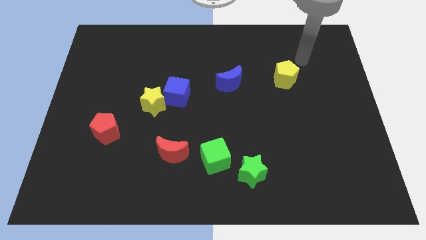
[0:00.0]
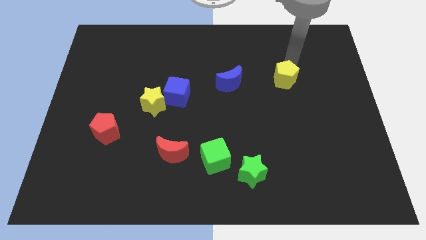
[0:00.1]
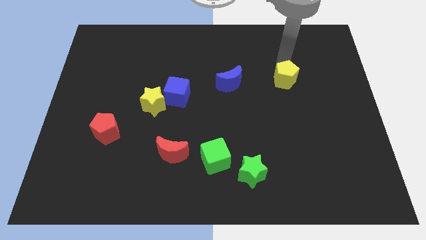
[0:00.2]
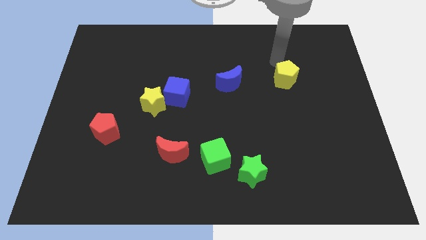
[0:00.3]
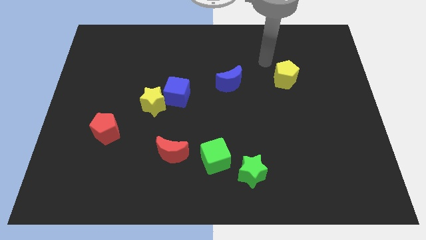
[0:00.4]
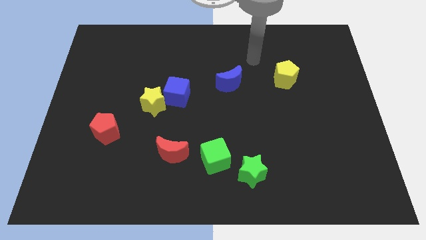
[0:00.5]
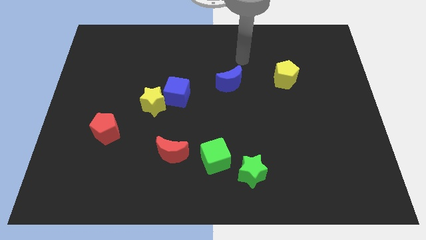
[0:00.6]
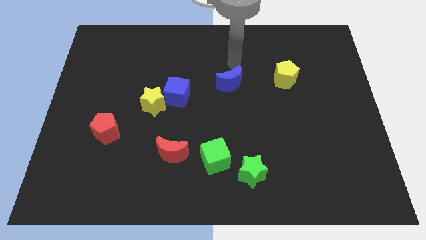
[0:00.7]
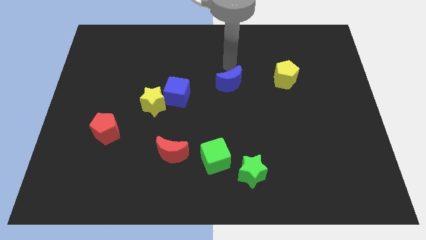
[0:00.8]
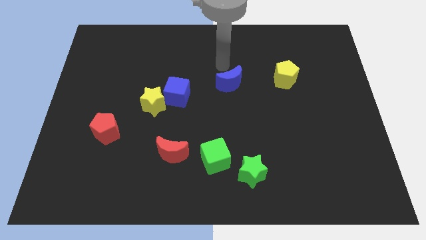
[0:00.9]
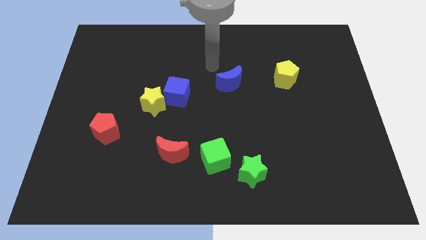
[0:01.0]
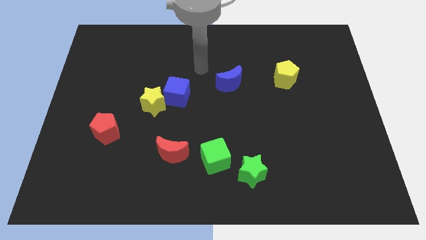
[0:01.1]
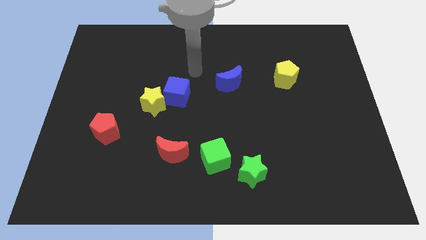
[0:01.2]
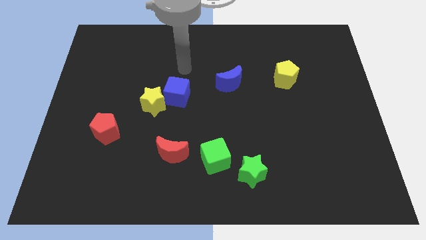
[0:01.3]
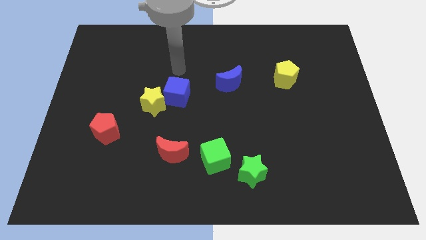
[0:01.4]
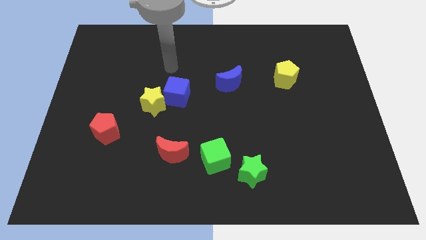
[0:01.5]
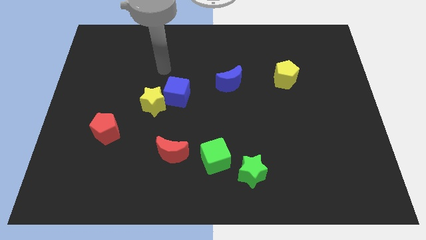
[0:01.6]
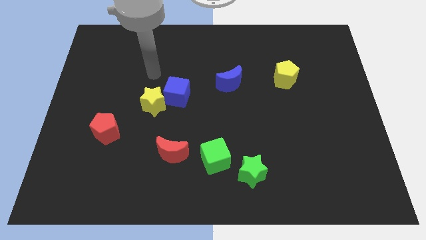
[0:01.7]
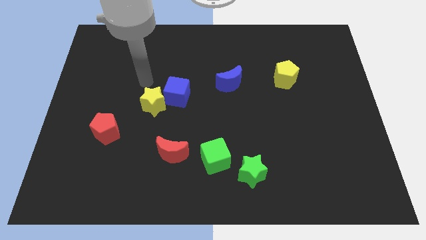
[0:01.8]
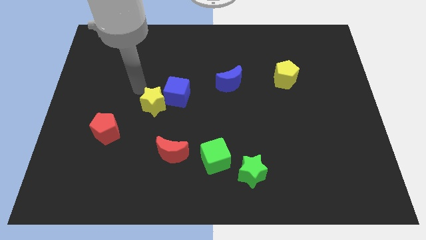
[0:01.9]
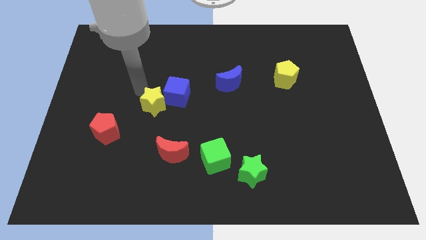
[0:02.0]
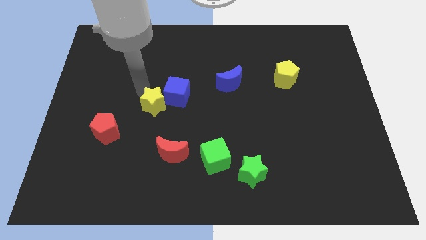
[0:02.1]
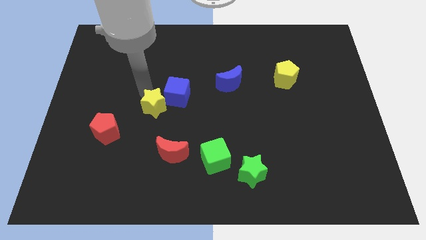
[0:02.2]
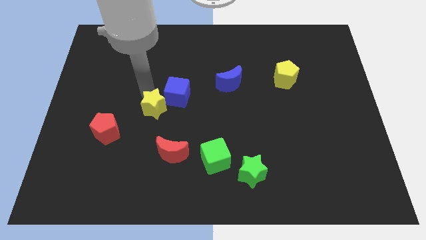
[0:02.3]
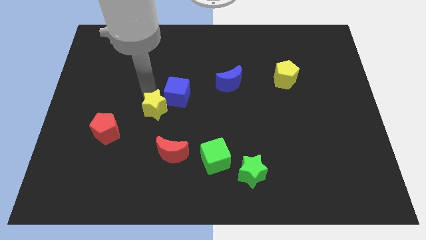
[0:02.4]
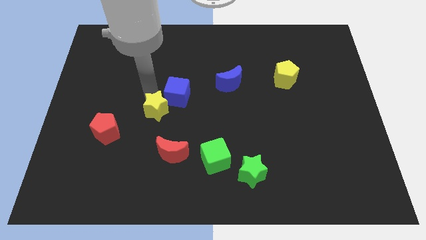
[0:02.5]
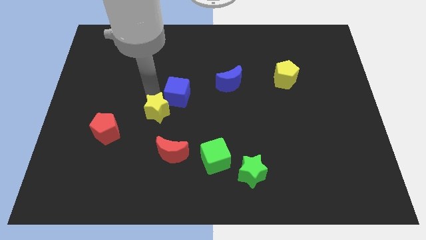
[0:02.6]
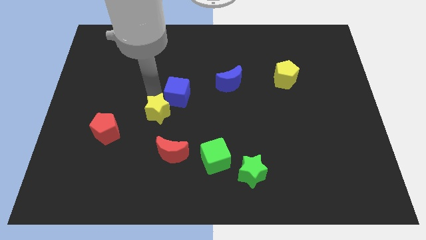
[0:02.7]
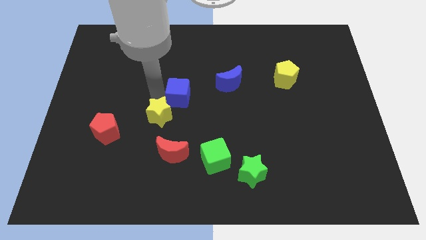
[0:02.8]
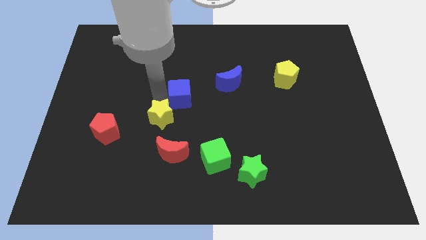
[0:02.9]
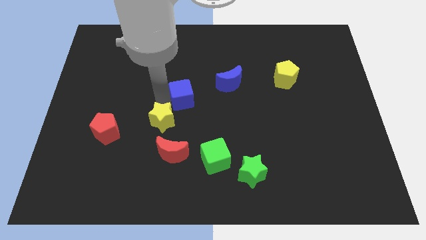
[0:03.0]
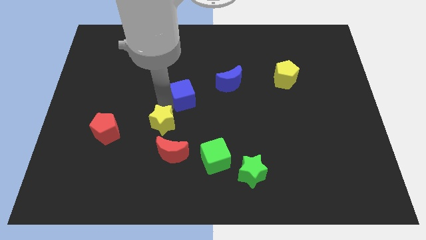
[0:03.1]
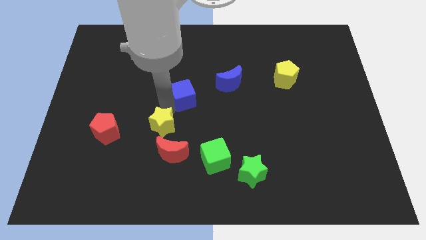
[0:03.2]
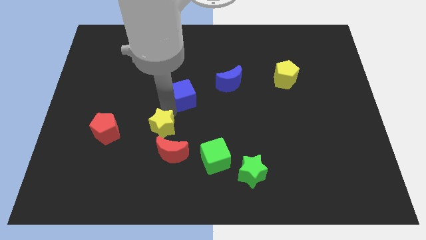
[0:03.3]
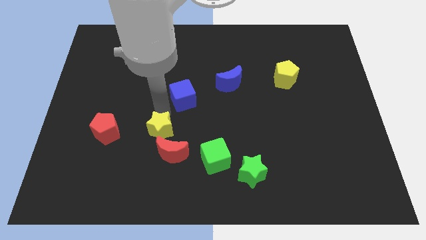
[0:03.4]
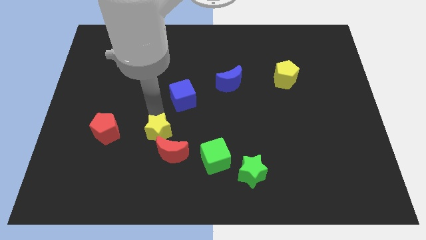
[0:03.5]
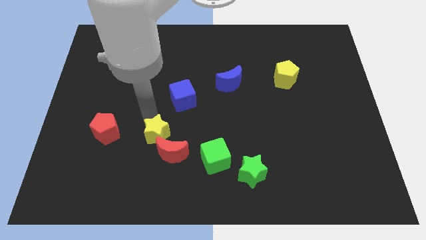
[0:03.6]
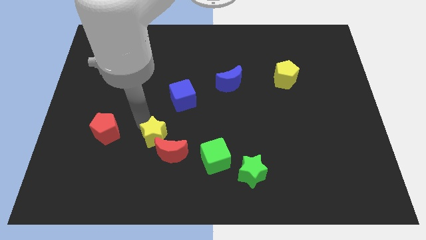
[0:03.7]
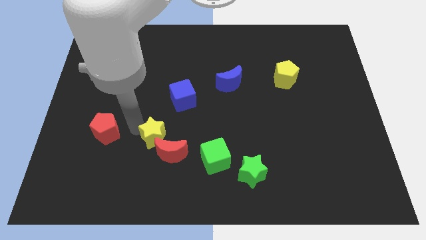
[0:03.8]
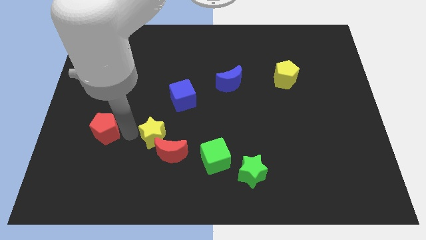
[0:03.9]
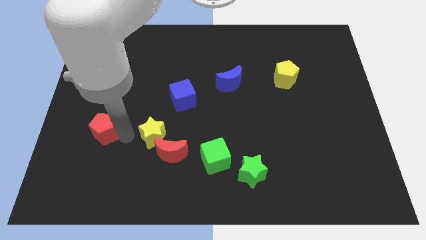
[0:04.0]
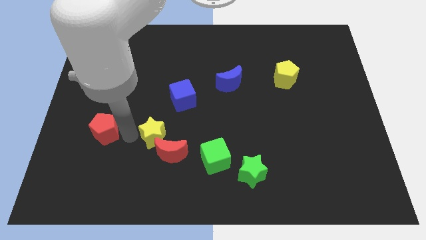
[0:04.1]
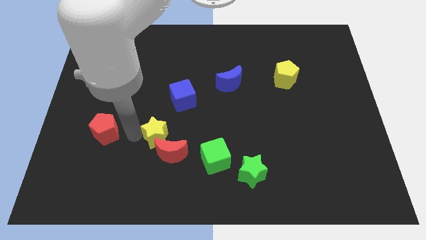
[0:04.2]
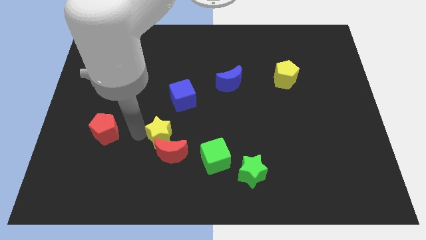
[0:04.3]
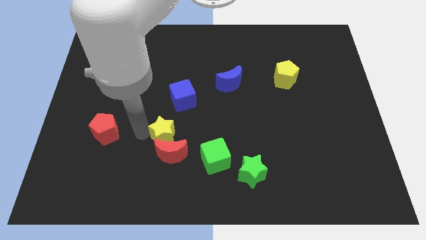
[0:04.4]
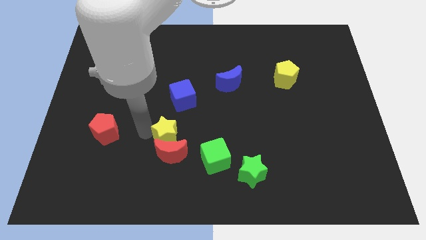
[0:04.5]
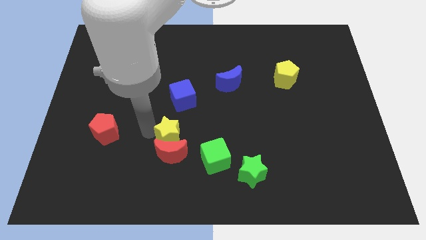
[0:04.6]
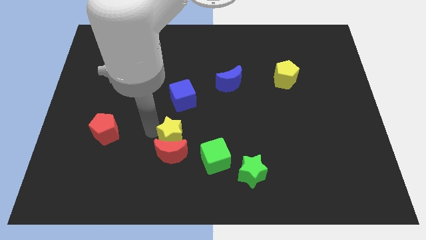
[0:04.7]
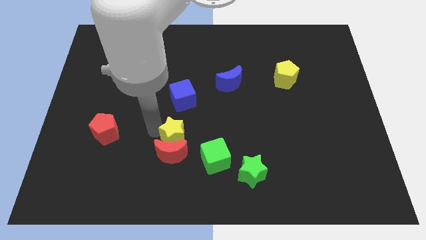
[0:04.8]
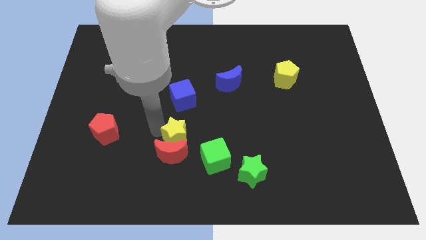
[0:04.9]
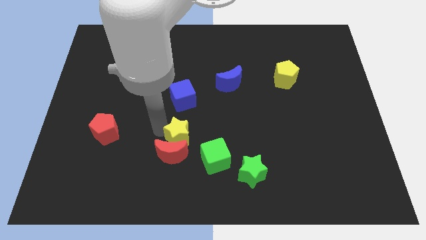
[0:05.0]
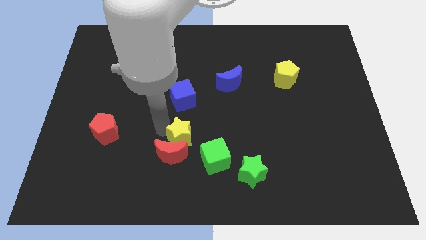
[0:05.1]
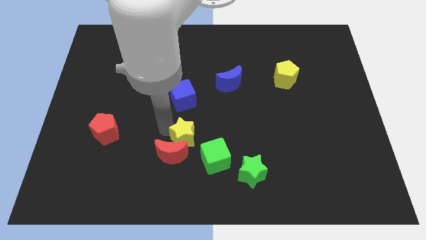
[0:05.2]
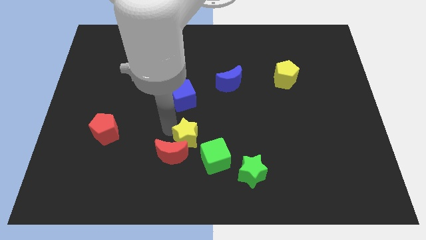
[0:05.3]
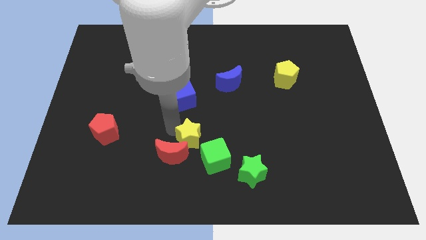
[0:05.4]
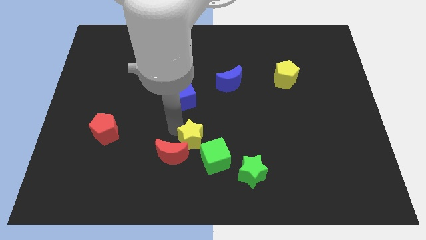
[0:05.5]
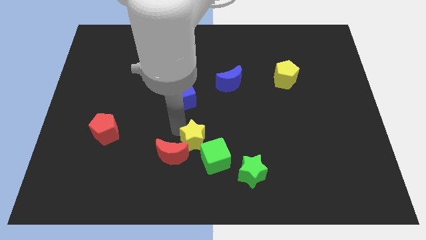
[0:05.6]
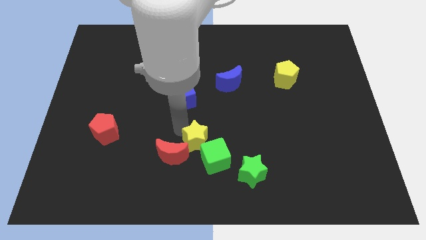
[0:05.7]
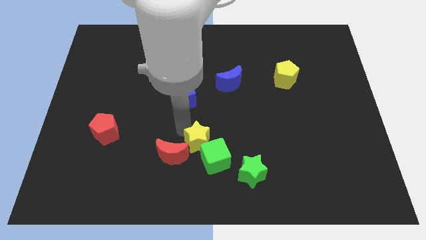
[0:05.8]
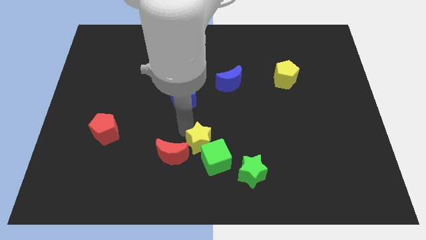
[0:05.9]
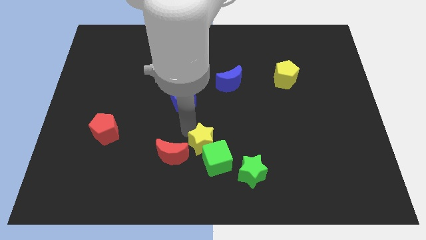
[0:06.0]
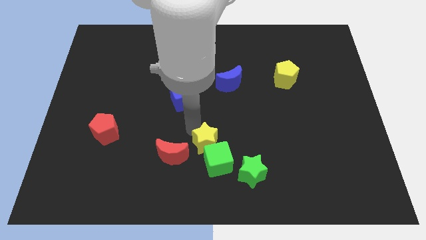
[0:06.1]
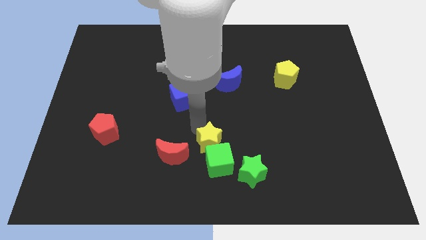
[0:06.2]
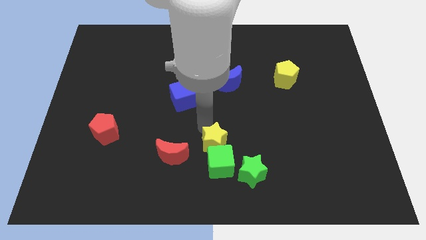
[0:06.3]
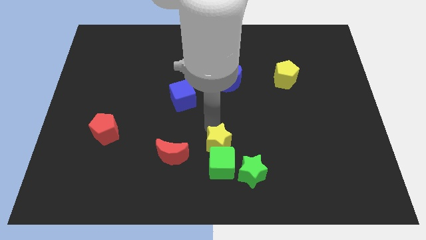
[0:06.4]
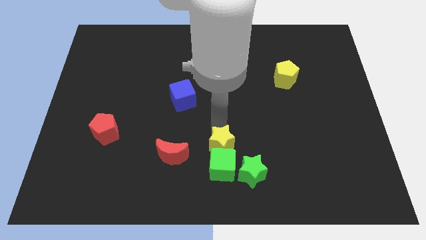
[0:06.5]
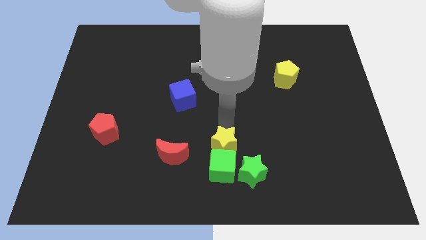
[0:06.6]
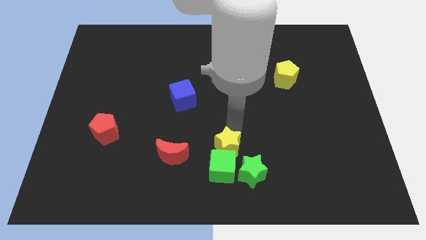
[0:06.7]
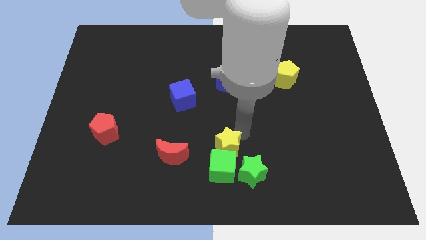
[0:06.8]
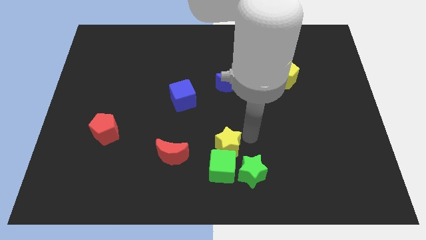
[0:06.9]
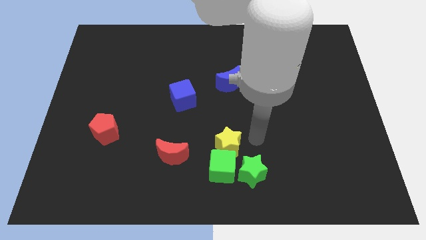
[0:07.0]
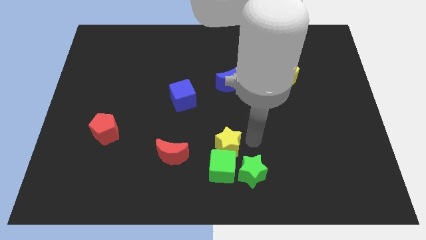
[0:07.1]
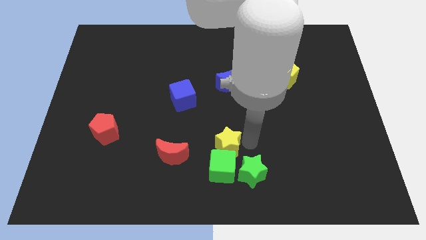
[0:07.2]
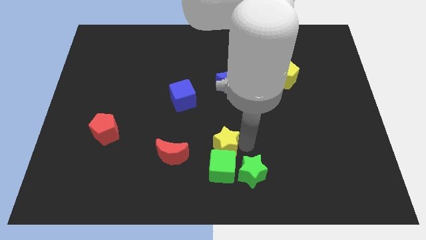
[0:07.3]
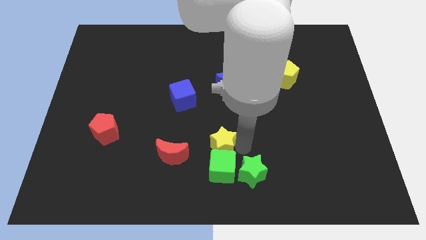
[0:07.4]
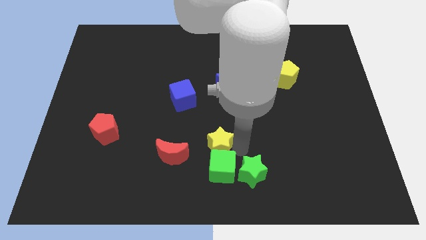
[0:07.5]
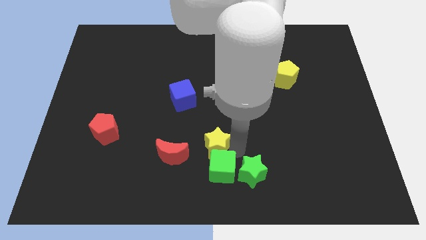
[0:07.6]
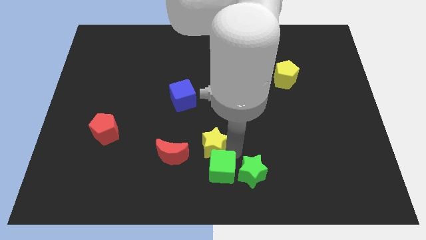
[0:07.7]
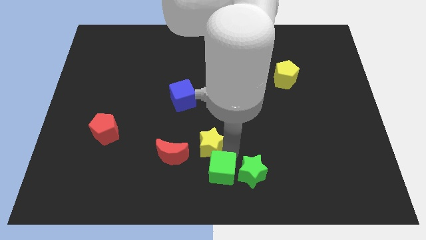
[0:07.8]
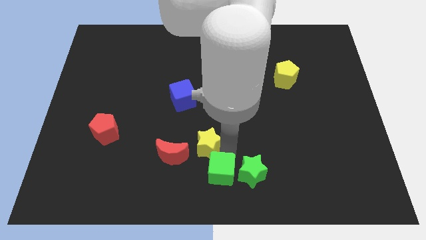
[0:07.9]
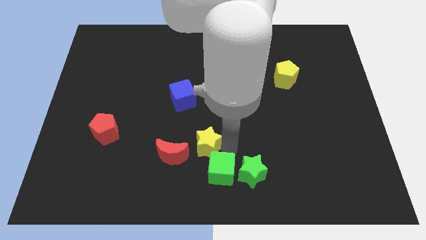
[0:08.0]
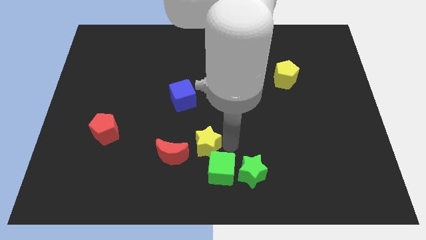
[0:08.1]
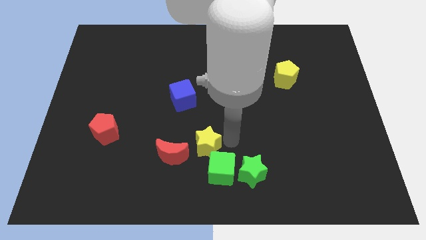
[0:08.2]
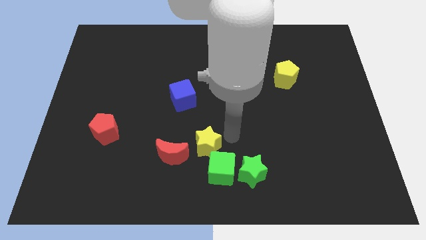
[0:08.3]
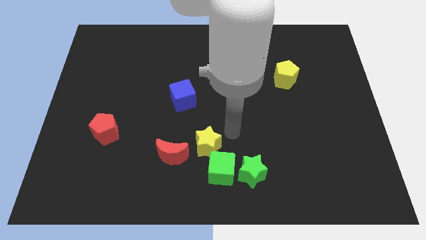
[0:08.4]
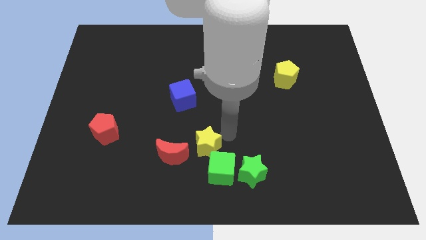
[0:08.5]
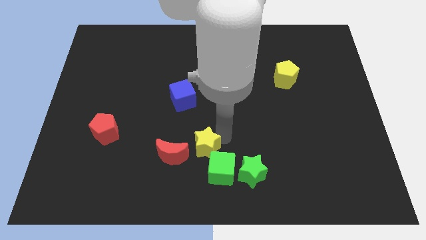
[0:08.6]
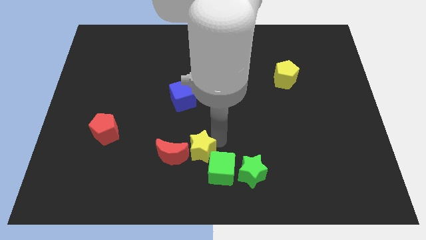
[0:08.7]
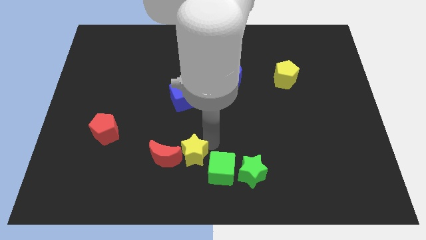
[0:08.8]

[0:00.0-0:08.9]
slide the yellow star left of the green star
